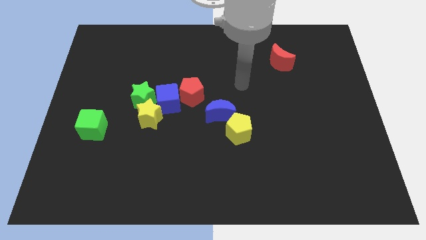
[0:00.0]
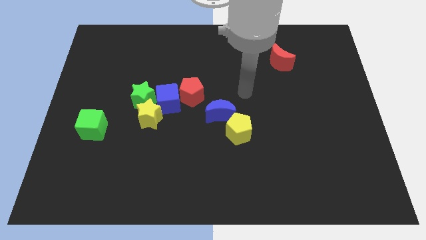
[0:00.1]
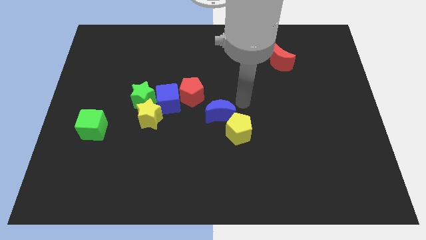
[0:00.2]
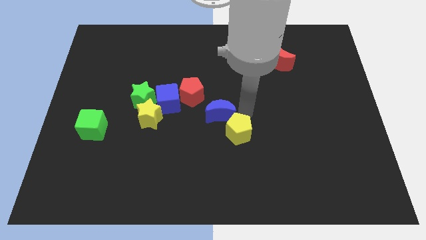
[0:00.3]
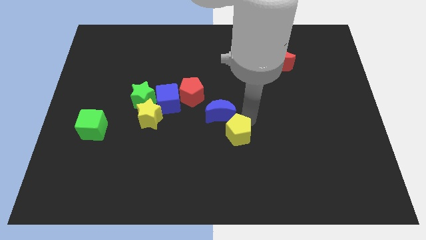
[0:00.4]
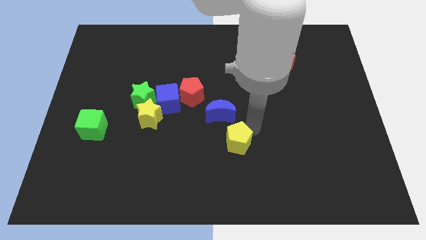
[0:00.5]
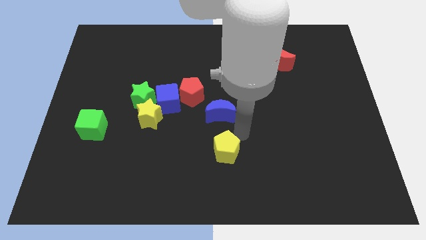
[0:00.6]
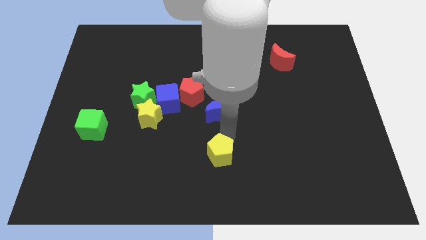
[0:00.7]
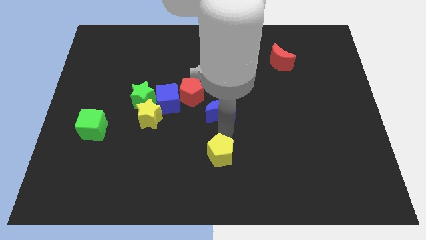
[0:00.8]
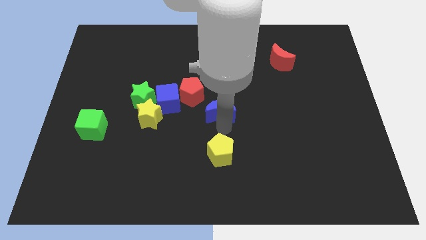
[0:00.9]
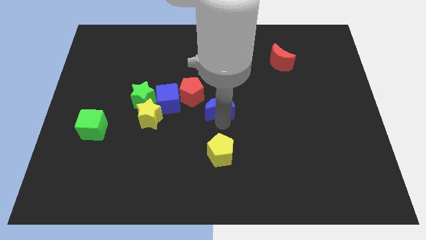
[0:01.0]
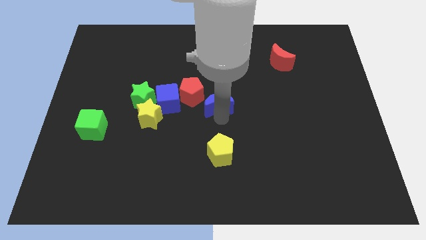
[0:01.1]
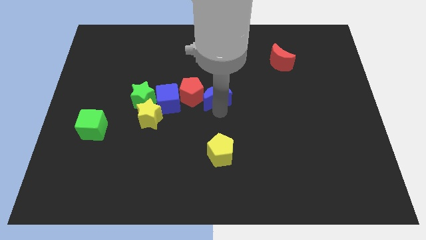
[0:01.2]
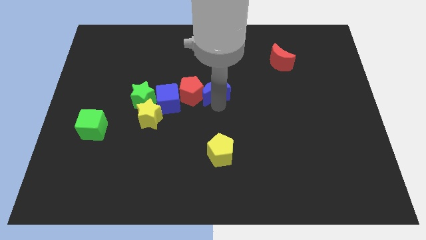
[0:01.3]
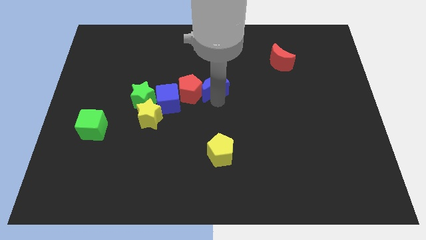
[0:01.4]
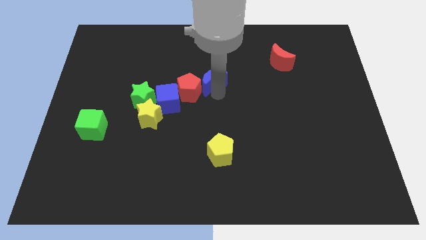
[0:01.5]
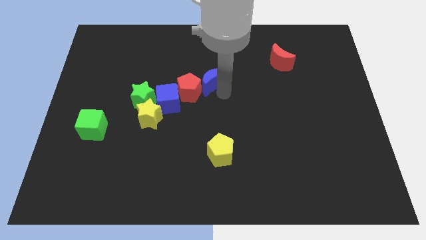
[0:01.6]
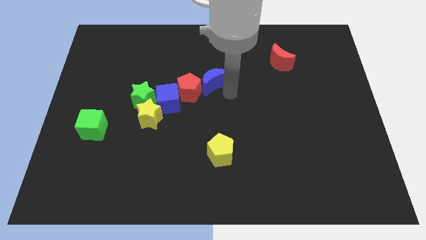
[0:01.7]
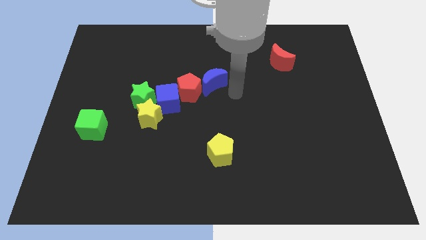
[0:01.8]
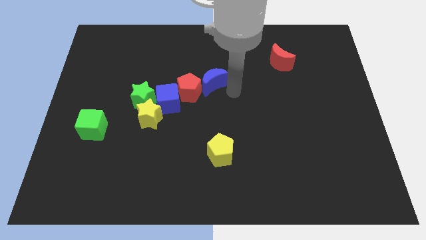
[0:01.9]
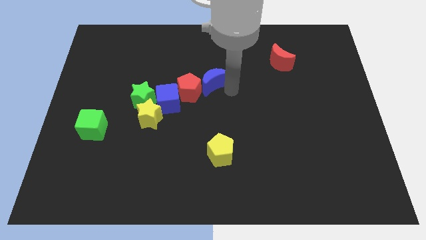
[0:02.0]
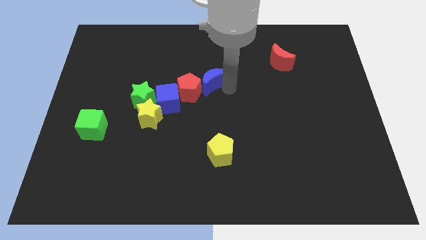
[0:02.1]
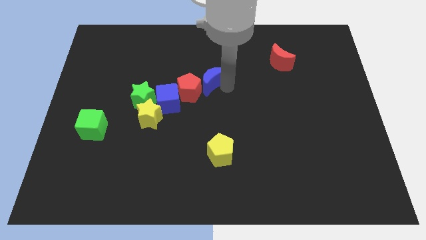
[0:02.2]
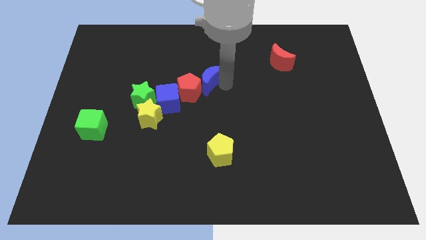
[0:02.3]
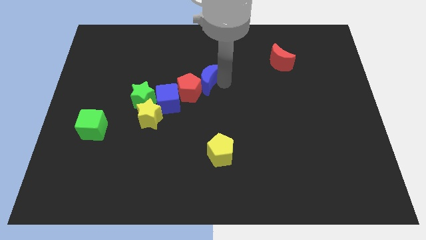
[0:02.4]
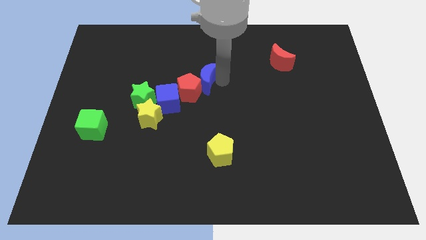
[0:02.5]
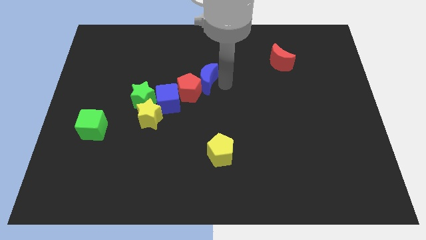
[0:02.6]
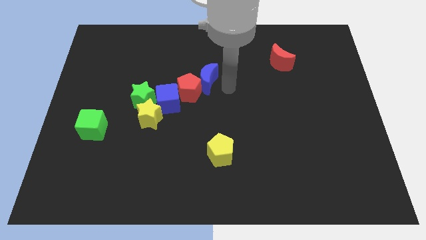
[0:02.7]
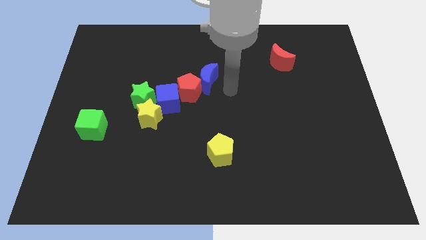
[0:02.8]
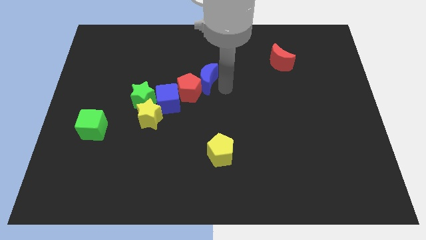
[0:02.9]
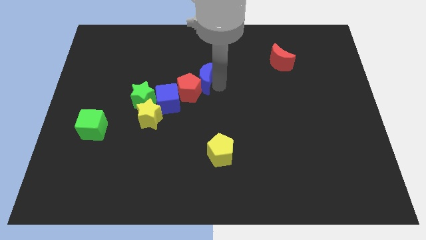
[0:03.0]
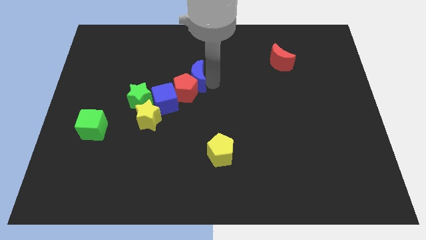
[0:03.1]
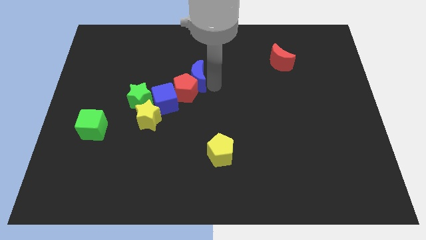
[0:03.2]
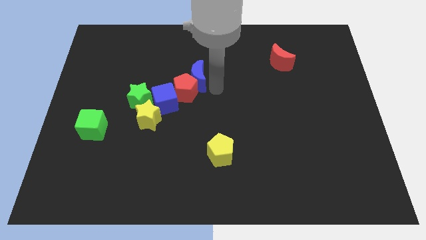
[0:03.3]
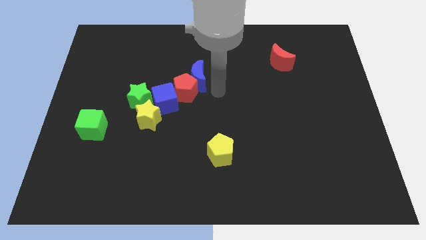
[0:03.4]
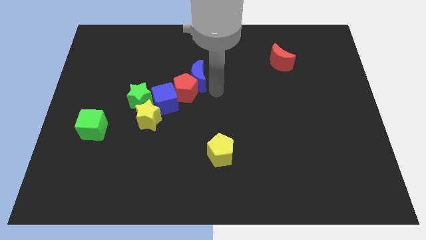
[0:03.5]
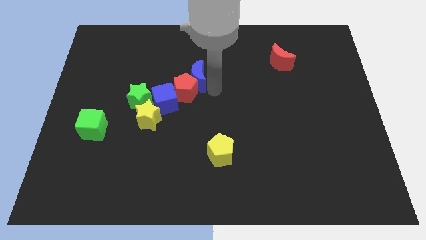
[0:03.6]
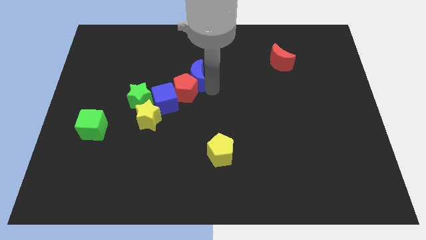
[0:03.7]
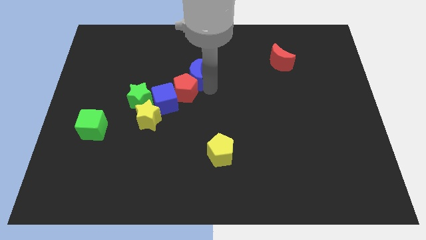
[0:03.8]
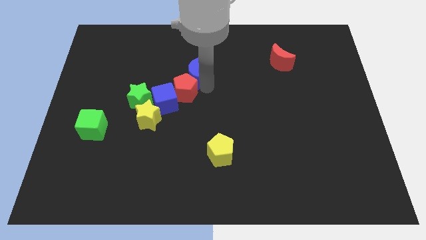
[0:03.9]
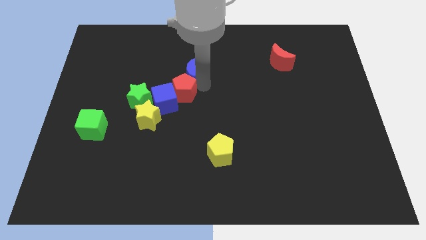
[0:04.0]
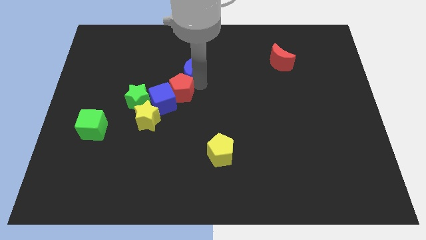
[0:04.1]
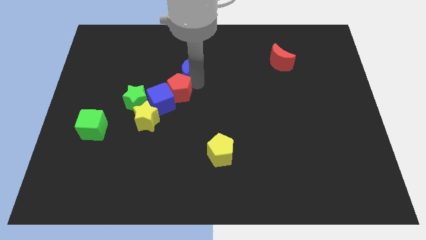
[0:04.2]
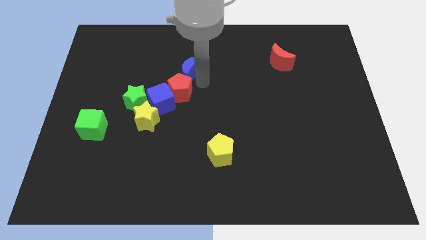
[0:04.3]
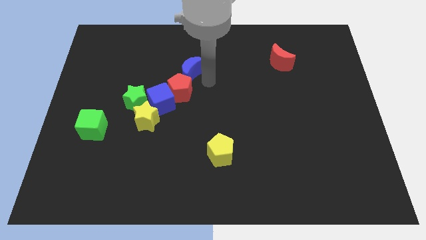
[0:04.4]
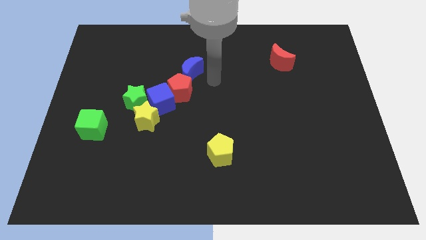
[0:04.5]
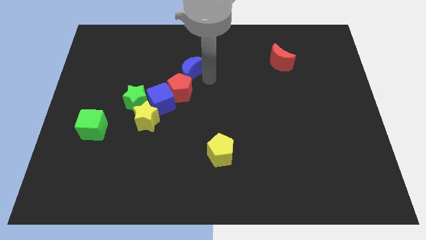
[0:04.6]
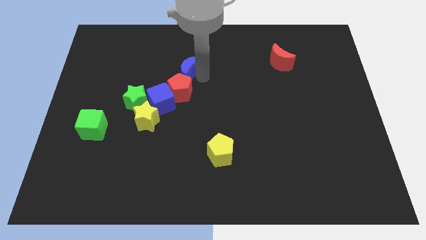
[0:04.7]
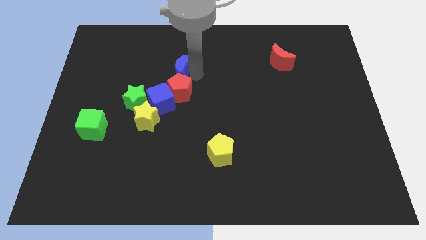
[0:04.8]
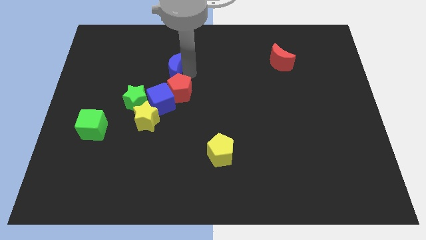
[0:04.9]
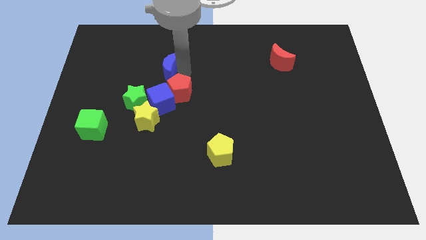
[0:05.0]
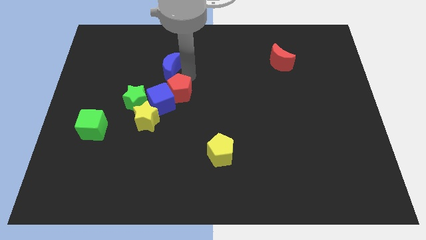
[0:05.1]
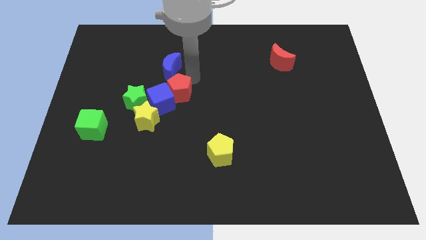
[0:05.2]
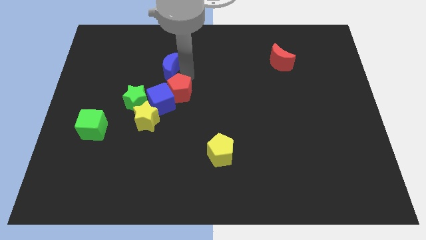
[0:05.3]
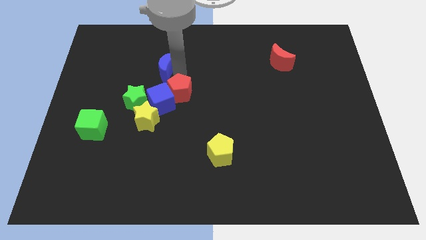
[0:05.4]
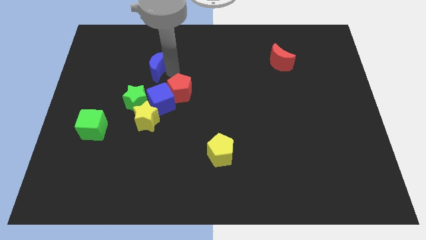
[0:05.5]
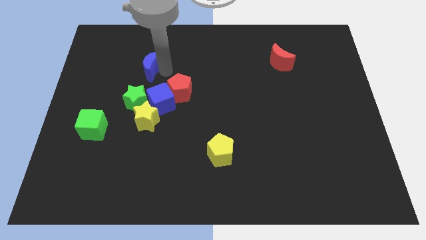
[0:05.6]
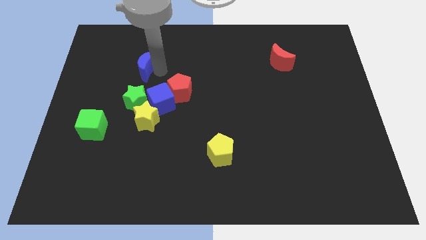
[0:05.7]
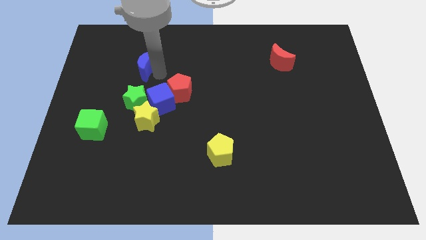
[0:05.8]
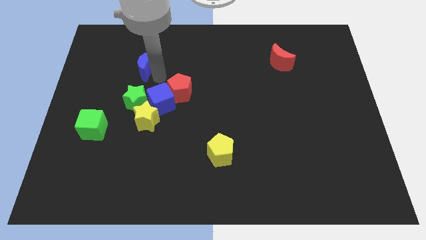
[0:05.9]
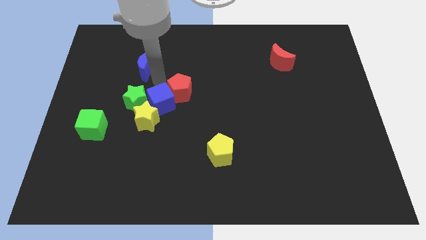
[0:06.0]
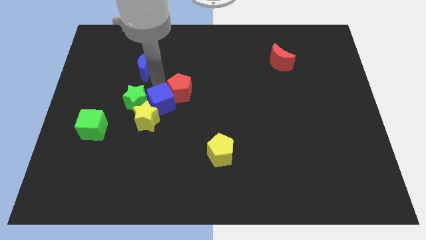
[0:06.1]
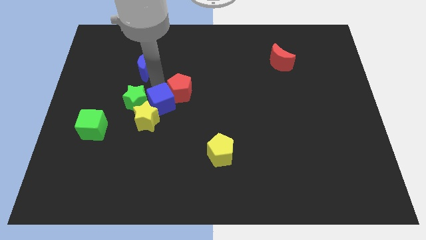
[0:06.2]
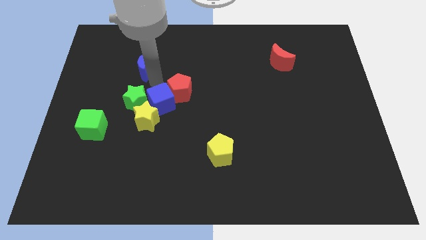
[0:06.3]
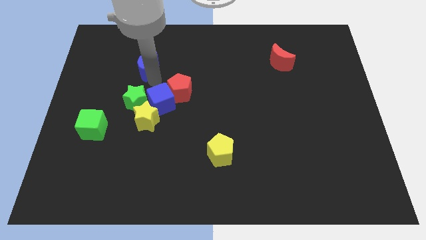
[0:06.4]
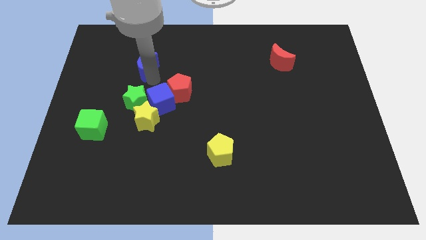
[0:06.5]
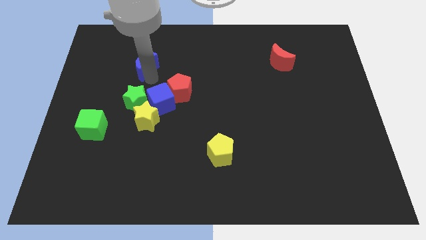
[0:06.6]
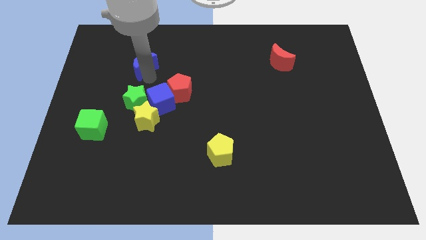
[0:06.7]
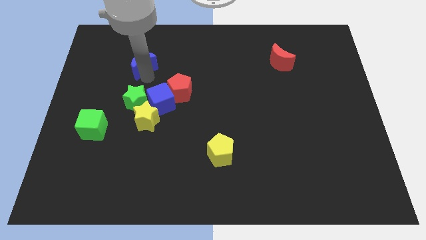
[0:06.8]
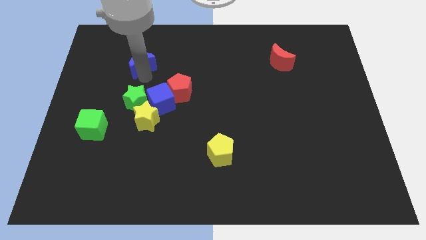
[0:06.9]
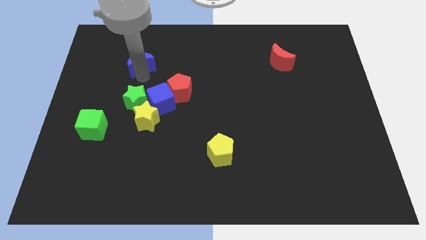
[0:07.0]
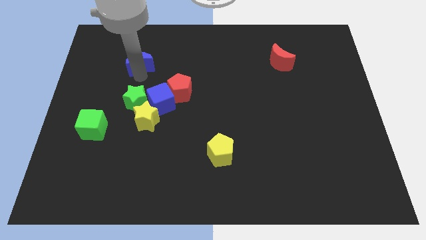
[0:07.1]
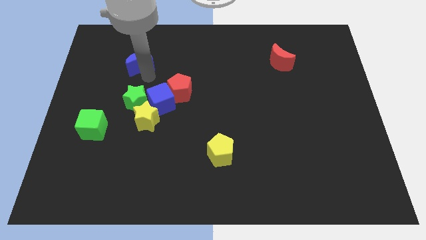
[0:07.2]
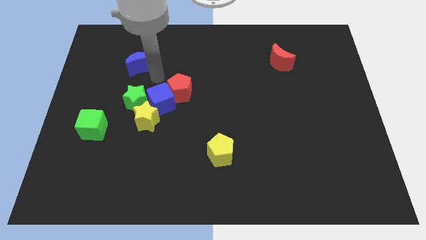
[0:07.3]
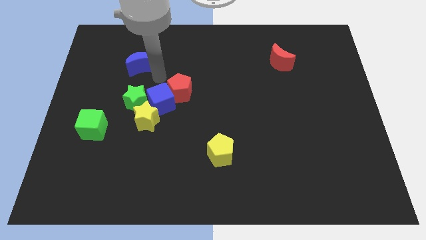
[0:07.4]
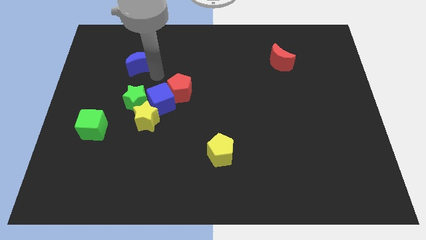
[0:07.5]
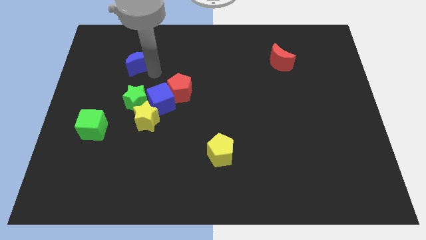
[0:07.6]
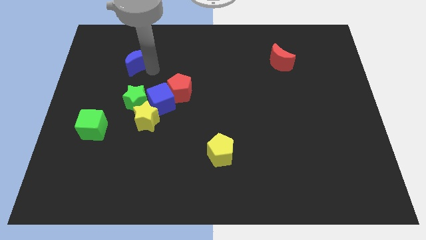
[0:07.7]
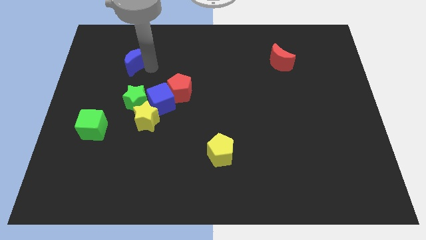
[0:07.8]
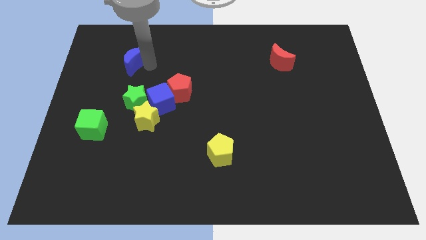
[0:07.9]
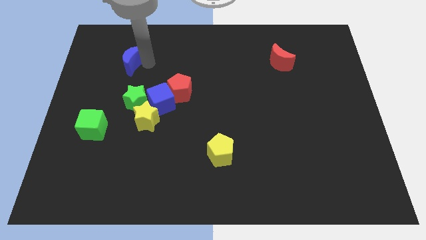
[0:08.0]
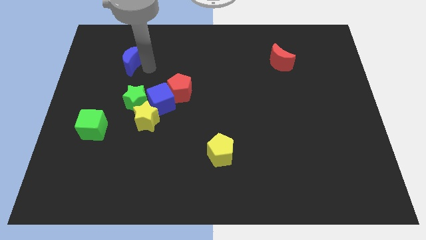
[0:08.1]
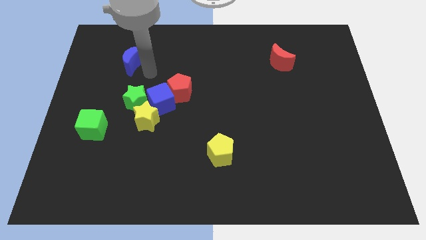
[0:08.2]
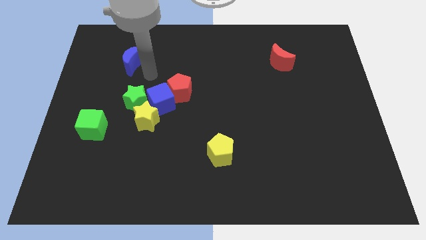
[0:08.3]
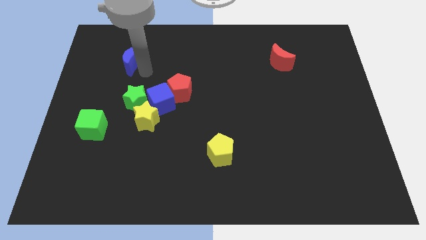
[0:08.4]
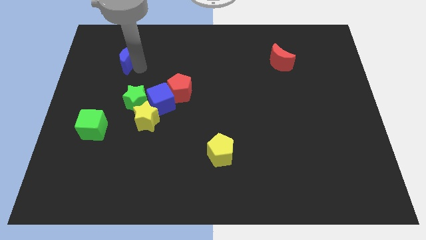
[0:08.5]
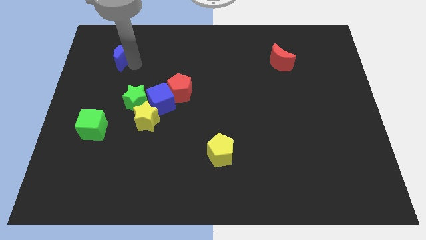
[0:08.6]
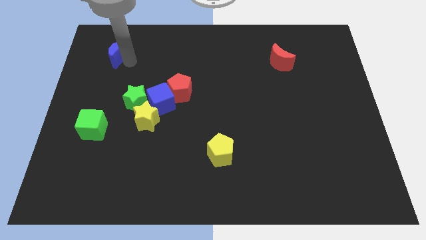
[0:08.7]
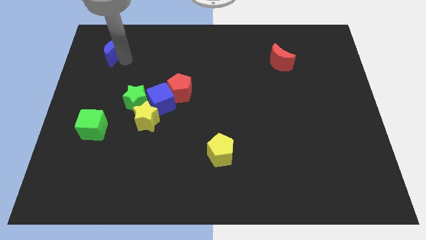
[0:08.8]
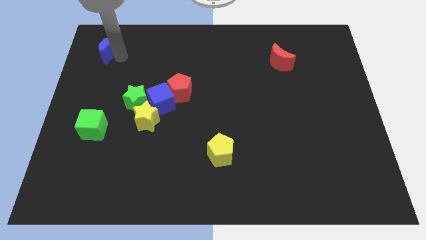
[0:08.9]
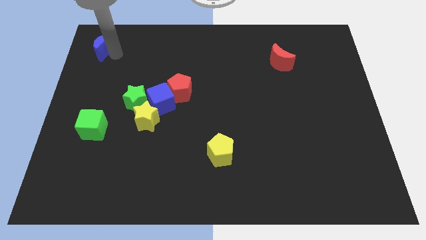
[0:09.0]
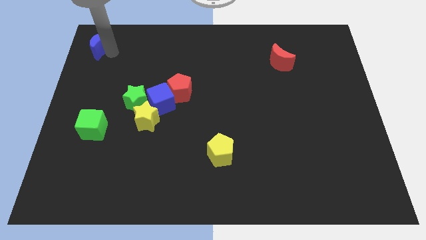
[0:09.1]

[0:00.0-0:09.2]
slide the blue moon to the upper left corner
